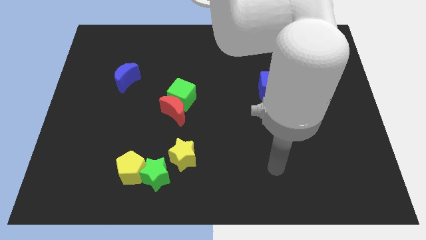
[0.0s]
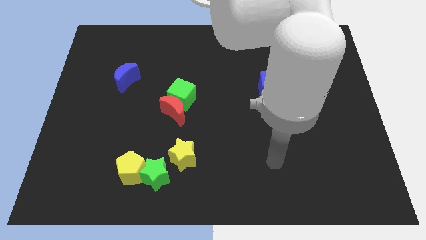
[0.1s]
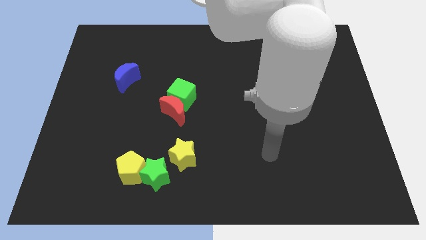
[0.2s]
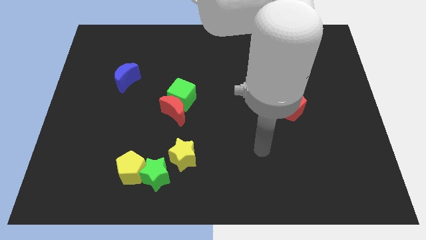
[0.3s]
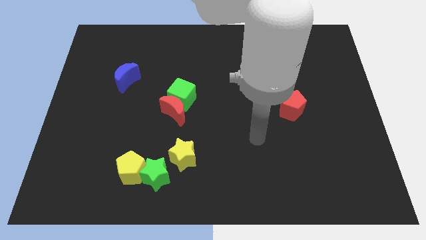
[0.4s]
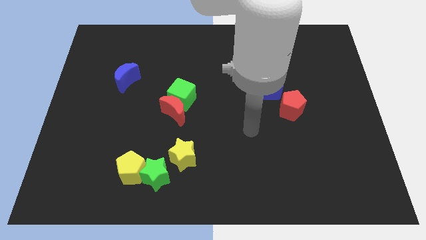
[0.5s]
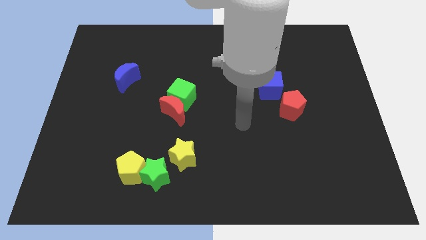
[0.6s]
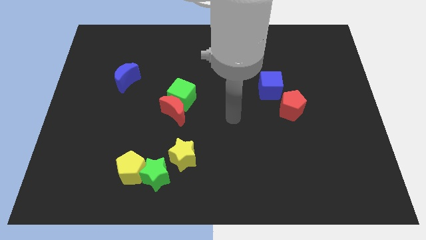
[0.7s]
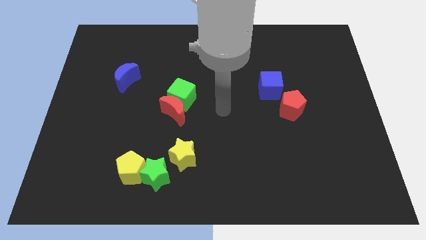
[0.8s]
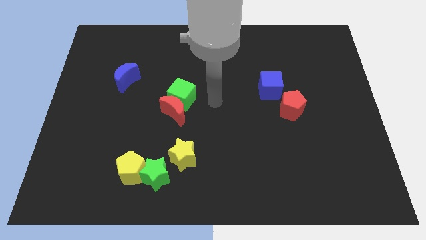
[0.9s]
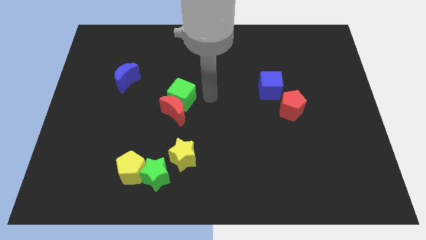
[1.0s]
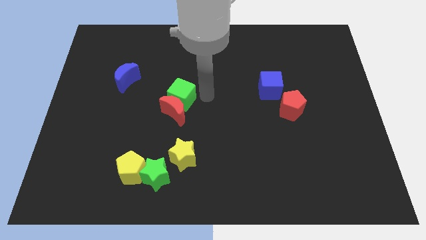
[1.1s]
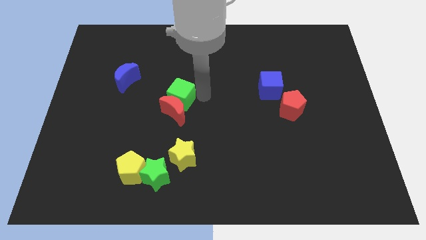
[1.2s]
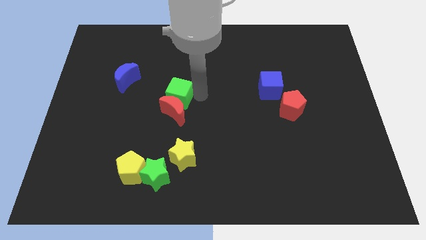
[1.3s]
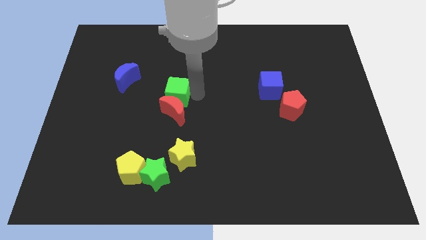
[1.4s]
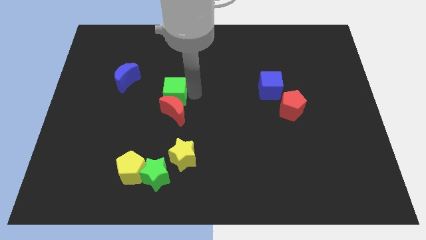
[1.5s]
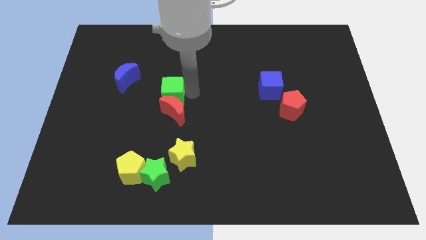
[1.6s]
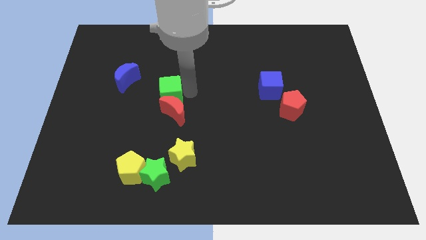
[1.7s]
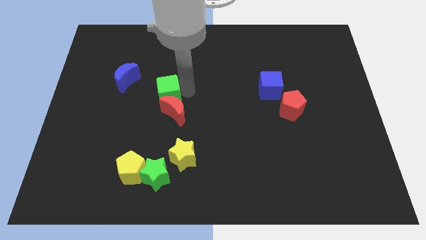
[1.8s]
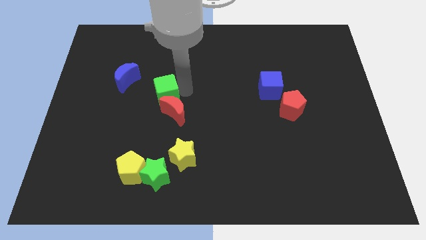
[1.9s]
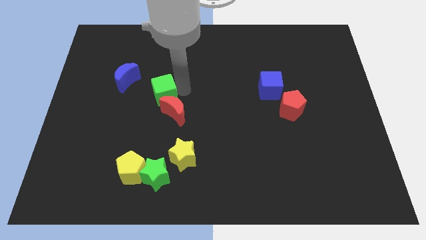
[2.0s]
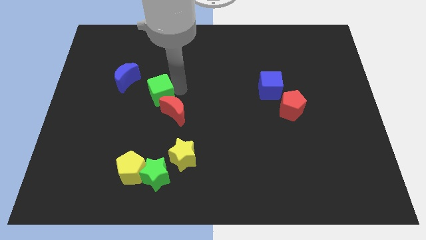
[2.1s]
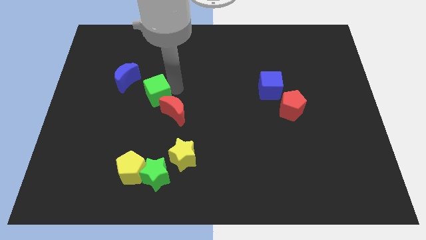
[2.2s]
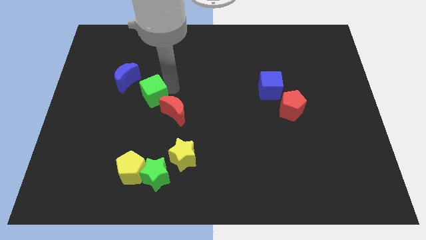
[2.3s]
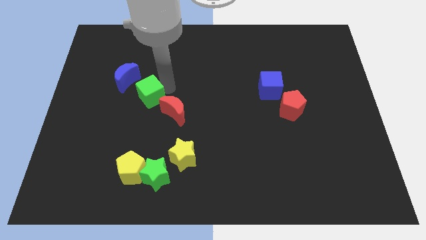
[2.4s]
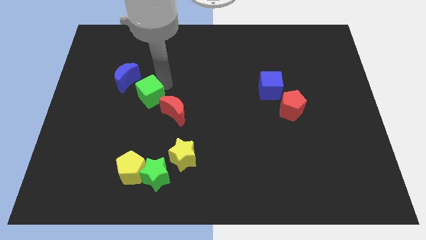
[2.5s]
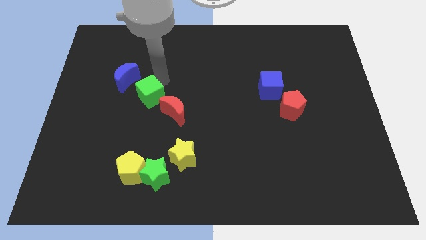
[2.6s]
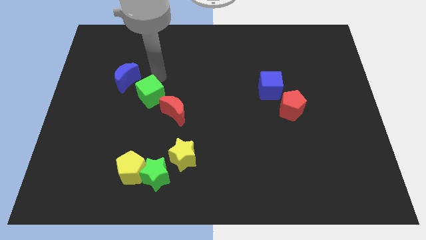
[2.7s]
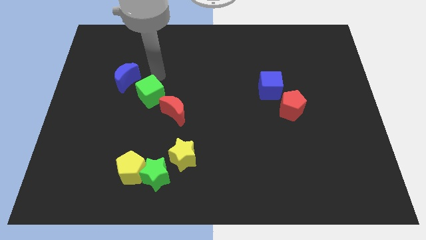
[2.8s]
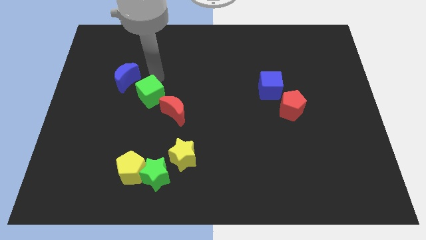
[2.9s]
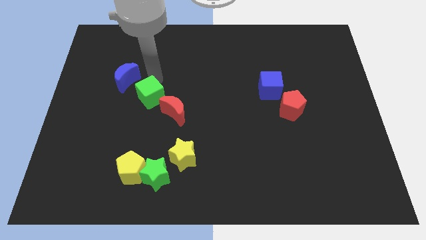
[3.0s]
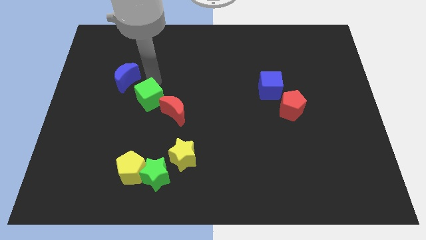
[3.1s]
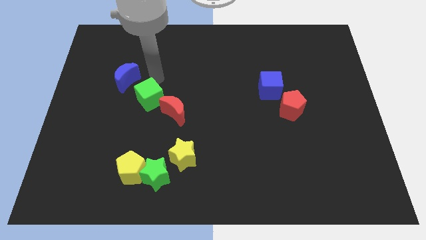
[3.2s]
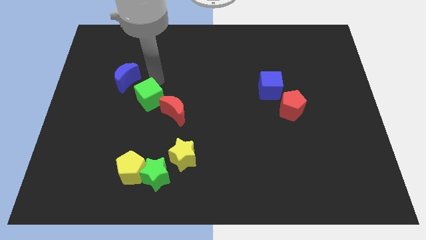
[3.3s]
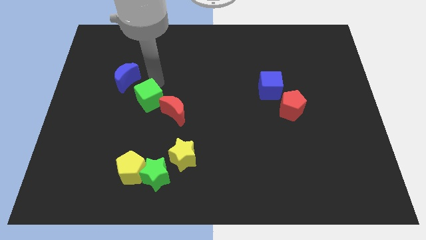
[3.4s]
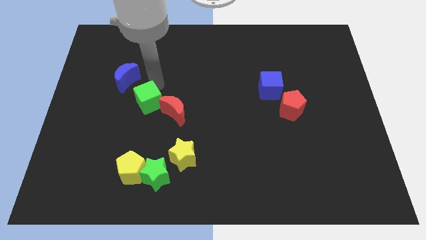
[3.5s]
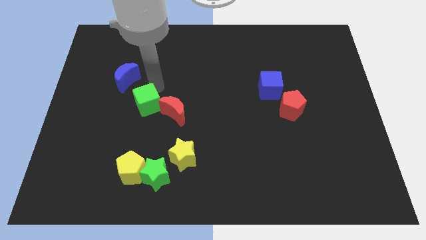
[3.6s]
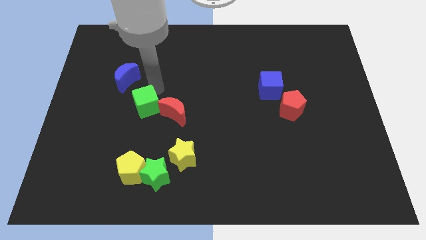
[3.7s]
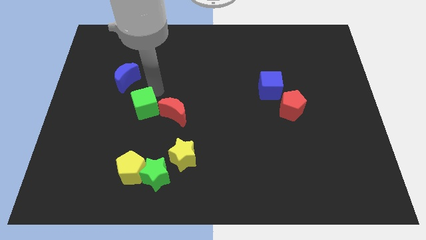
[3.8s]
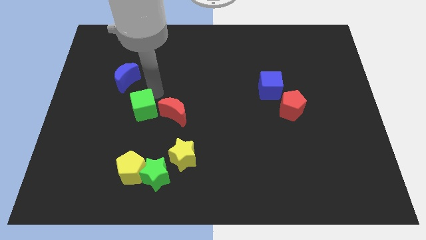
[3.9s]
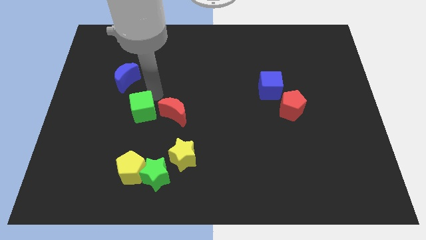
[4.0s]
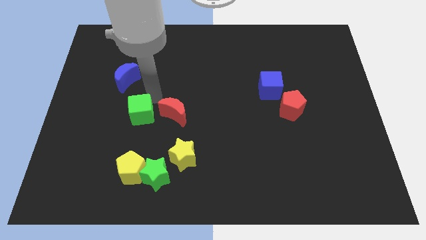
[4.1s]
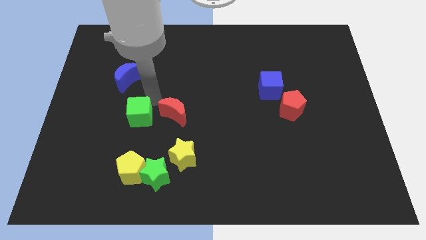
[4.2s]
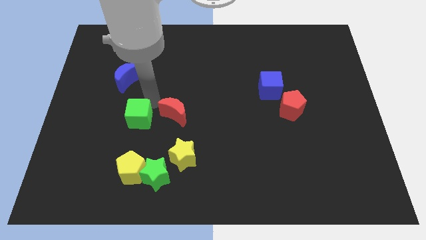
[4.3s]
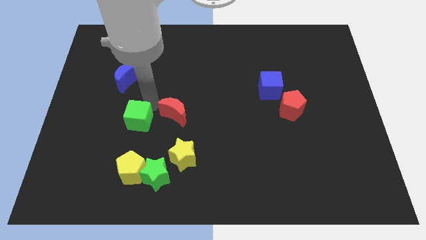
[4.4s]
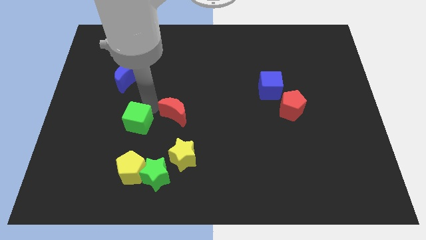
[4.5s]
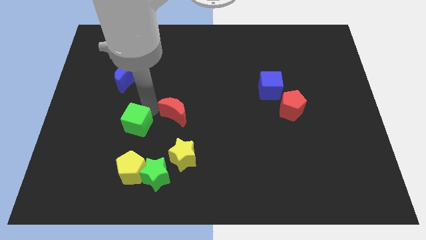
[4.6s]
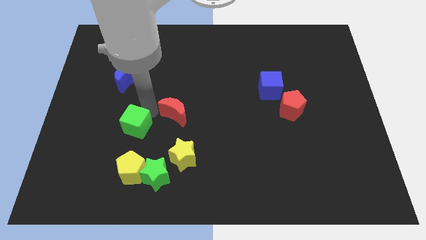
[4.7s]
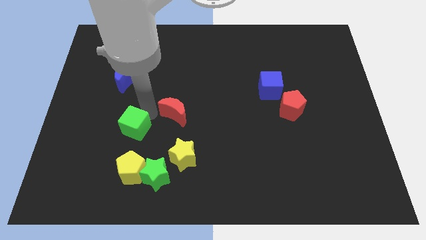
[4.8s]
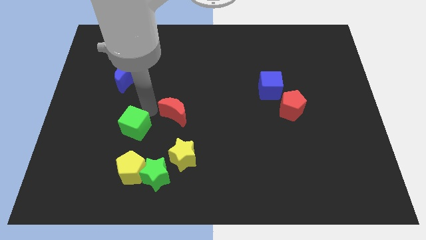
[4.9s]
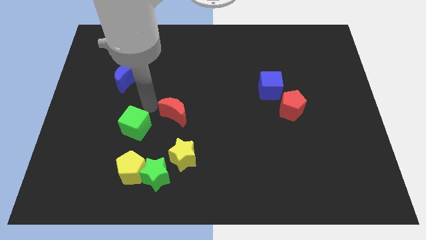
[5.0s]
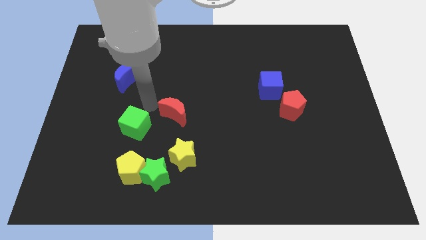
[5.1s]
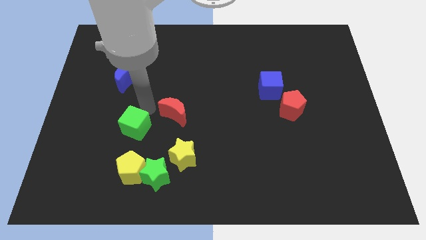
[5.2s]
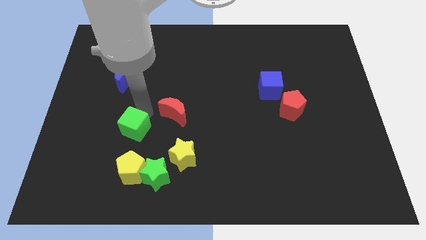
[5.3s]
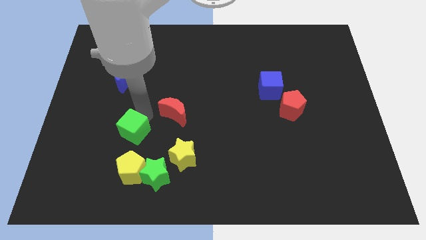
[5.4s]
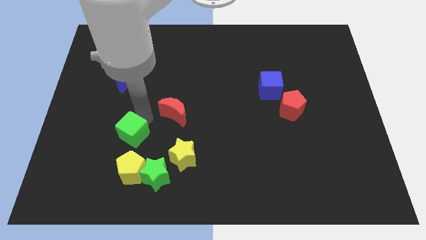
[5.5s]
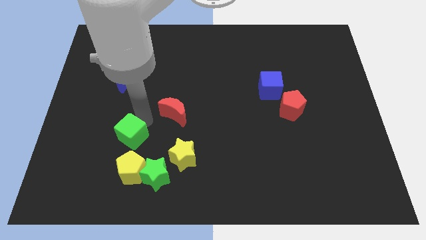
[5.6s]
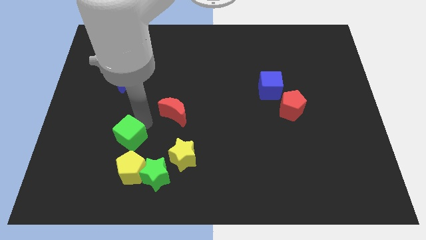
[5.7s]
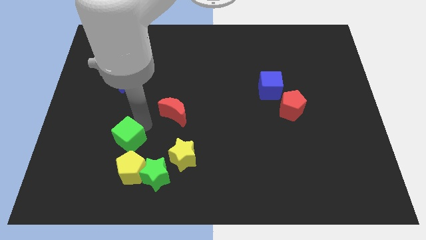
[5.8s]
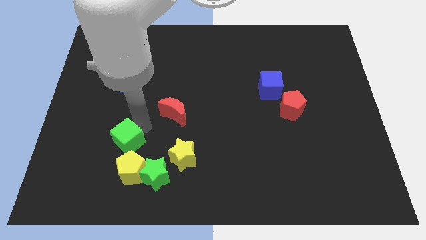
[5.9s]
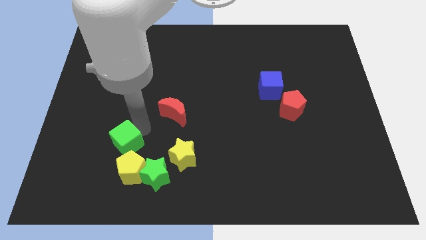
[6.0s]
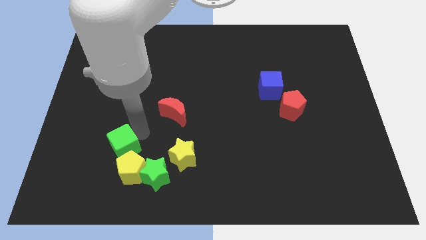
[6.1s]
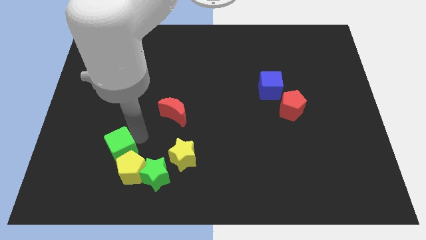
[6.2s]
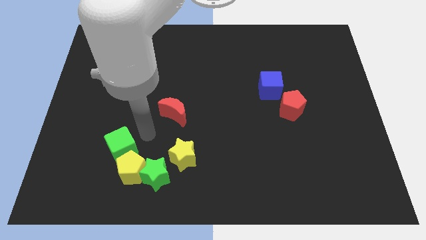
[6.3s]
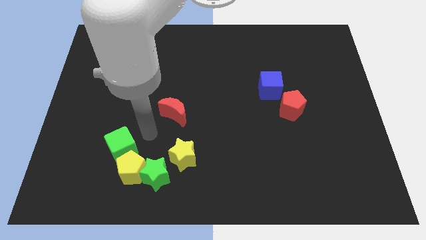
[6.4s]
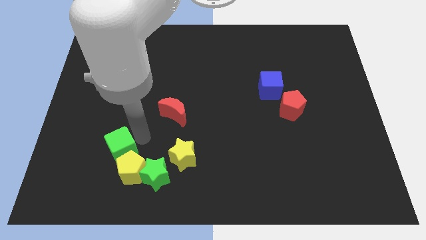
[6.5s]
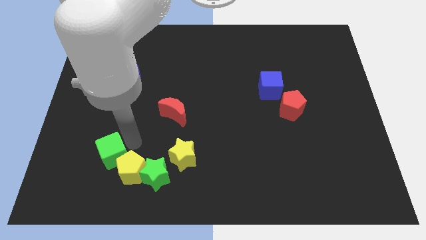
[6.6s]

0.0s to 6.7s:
move the green cube to the left side of the yellow pentagon
